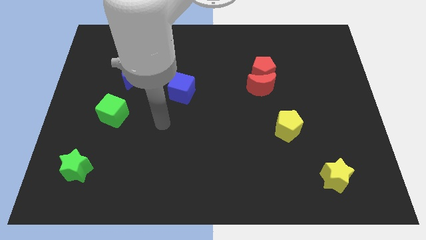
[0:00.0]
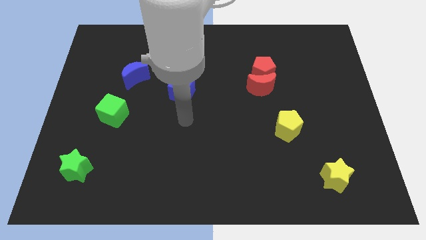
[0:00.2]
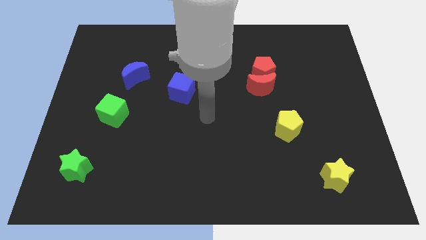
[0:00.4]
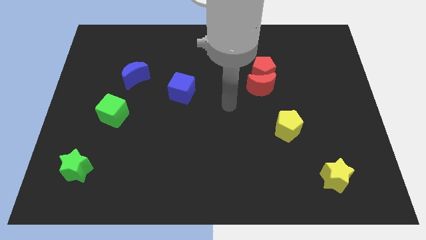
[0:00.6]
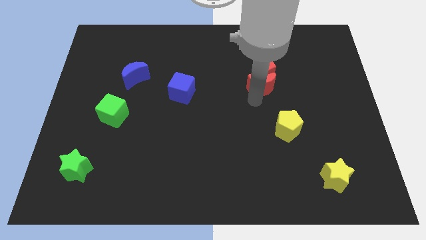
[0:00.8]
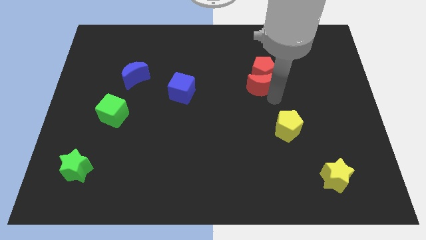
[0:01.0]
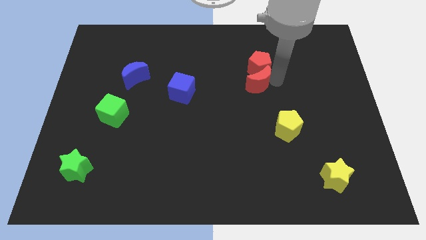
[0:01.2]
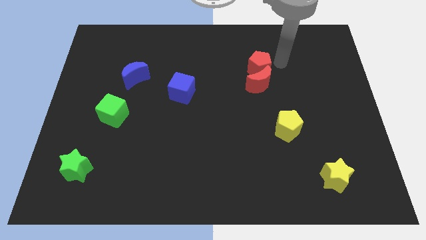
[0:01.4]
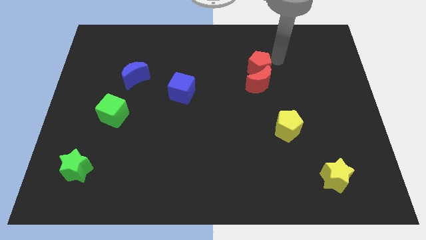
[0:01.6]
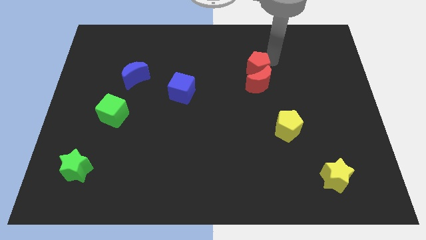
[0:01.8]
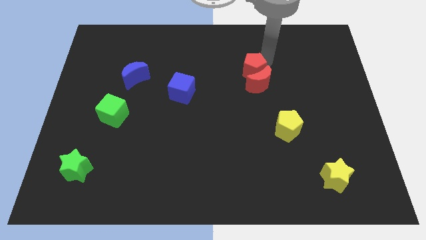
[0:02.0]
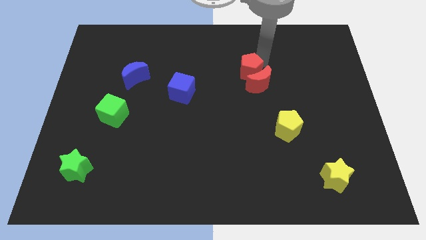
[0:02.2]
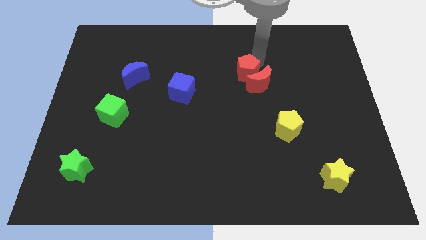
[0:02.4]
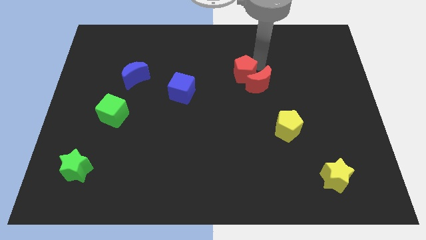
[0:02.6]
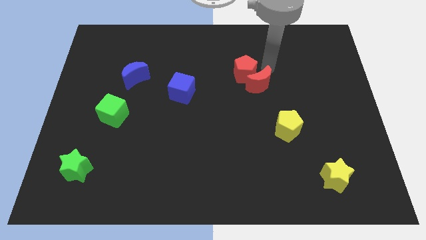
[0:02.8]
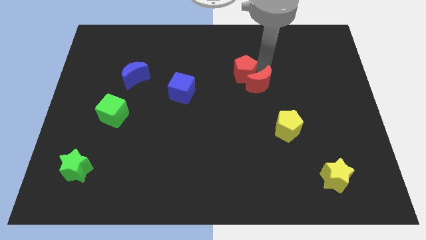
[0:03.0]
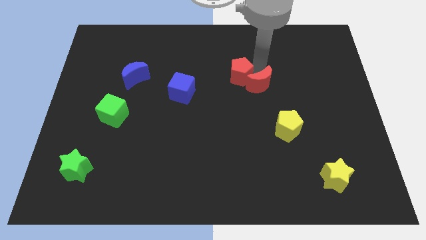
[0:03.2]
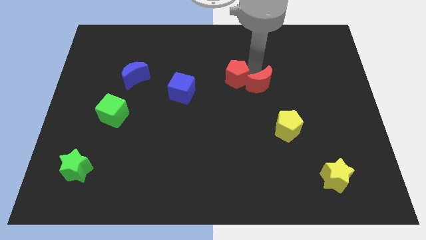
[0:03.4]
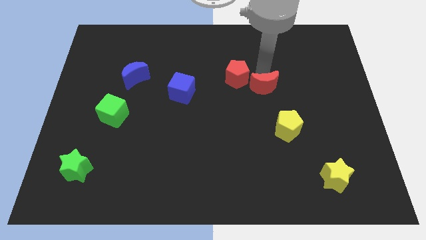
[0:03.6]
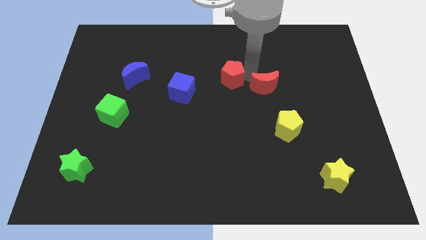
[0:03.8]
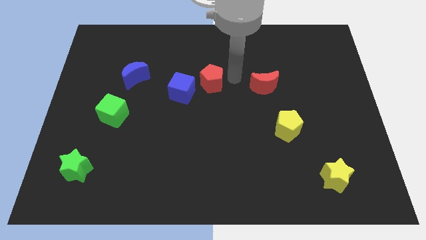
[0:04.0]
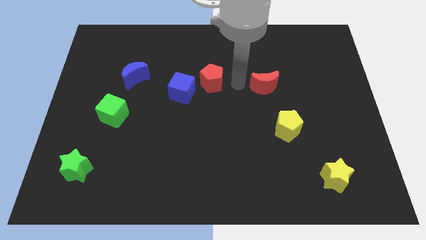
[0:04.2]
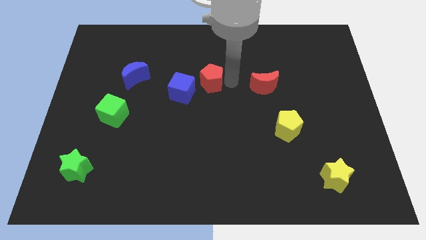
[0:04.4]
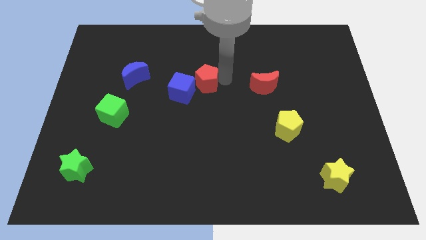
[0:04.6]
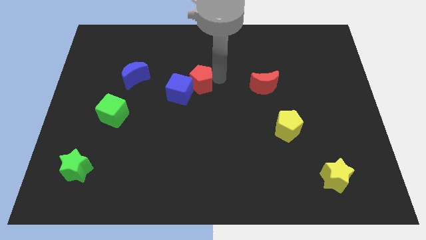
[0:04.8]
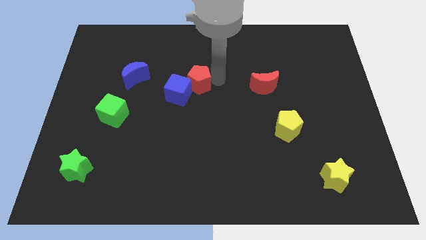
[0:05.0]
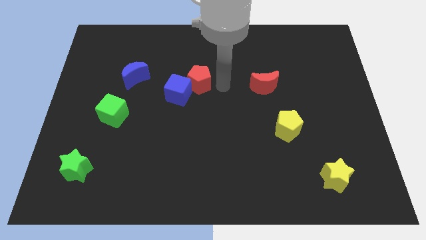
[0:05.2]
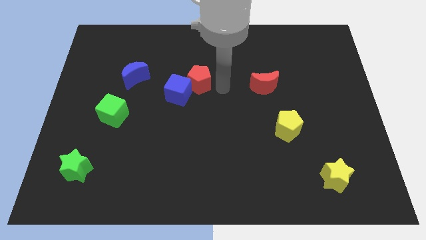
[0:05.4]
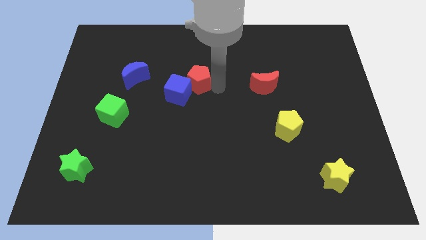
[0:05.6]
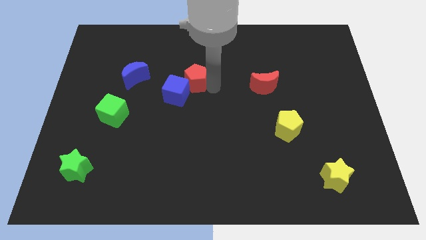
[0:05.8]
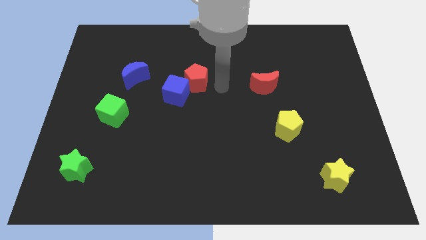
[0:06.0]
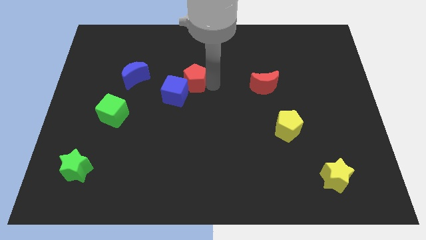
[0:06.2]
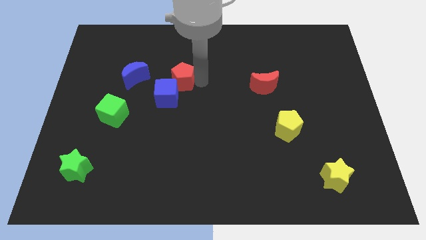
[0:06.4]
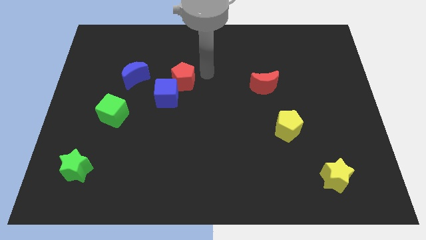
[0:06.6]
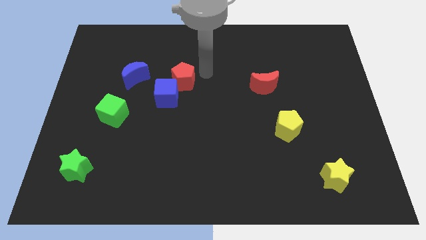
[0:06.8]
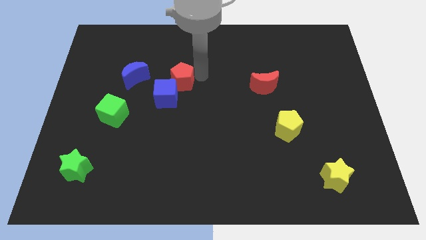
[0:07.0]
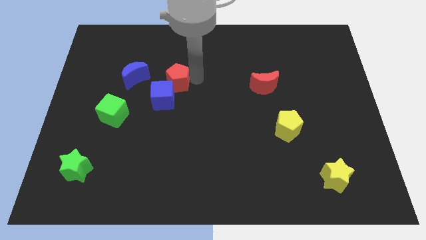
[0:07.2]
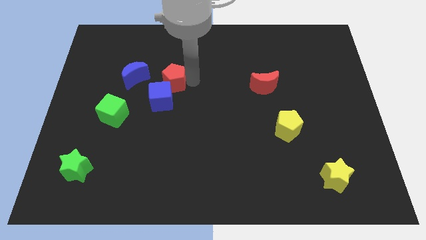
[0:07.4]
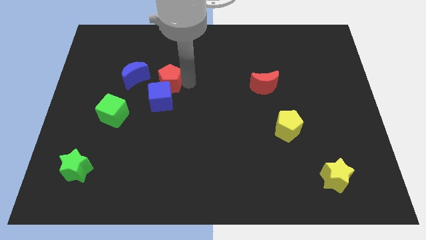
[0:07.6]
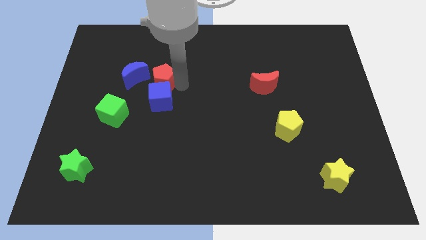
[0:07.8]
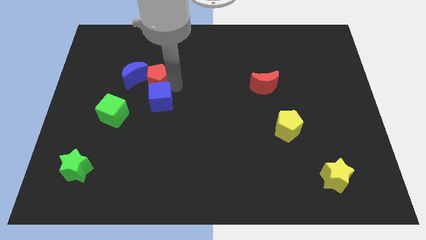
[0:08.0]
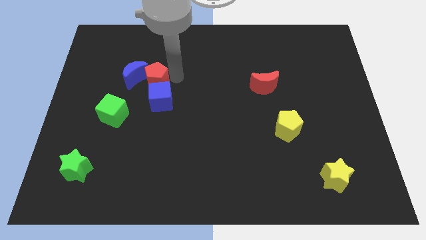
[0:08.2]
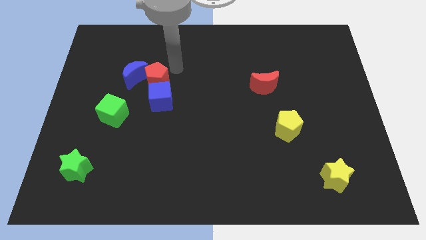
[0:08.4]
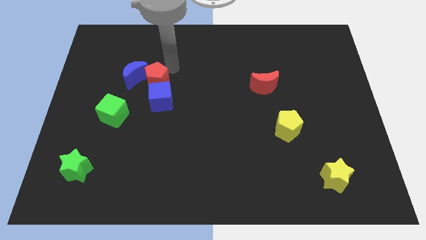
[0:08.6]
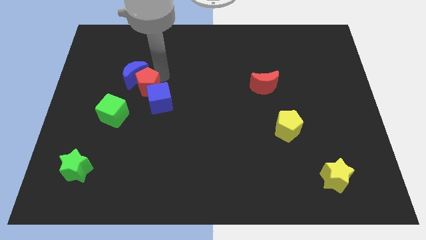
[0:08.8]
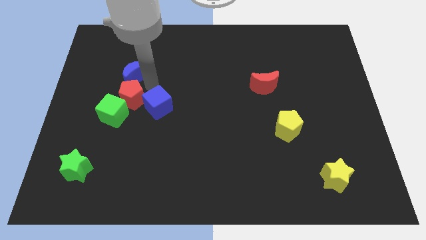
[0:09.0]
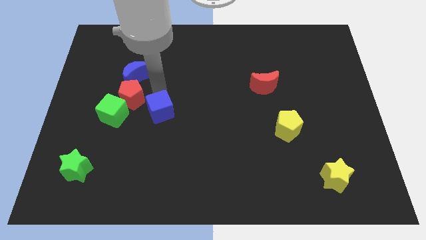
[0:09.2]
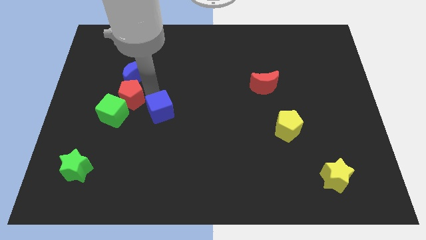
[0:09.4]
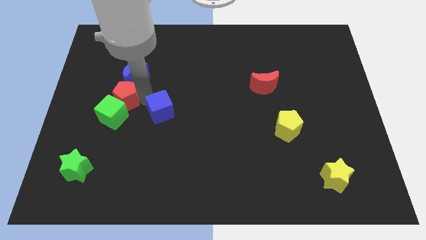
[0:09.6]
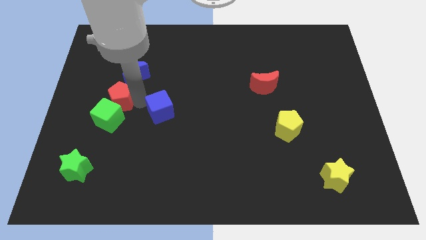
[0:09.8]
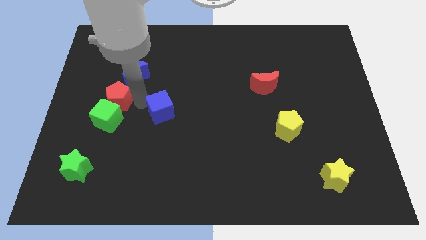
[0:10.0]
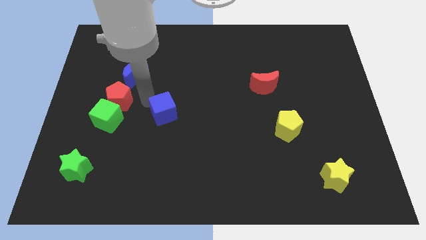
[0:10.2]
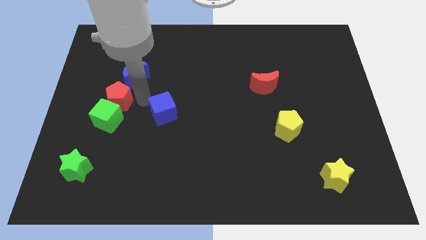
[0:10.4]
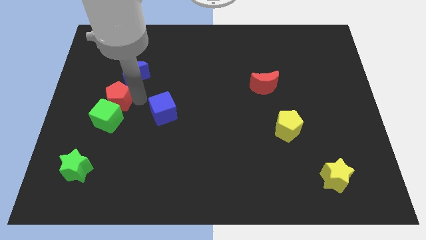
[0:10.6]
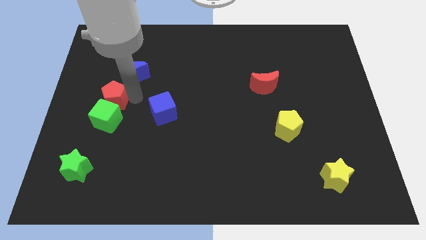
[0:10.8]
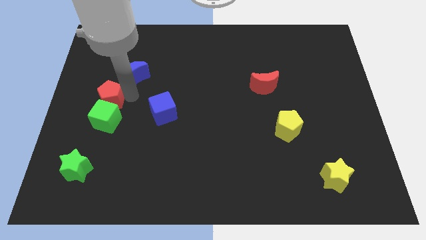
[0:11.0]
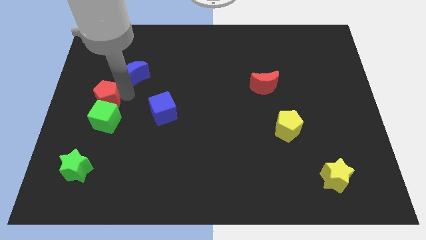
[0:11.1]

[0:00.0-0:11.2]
slide the red pentagon to the left side

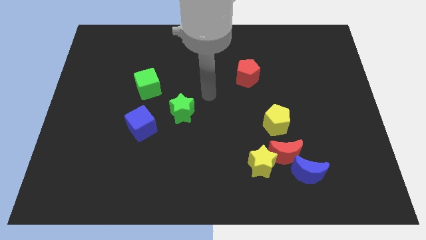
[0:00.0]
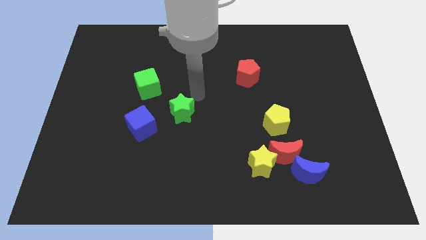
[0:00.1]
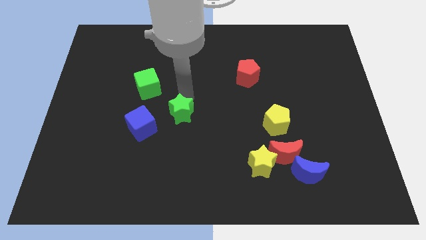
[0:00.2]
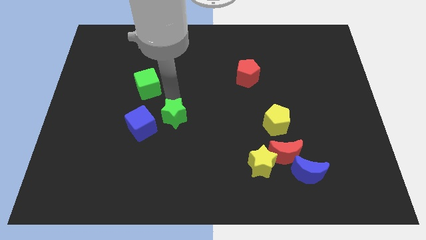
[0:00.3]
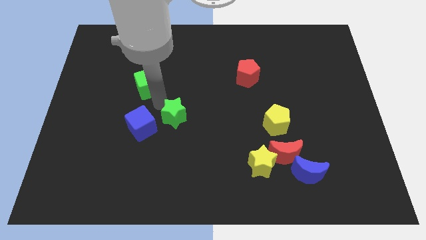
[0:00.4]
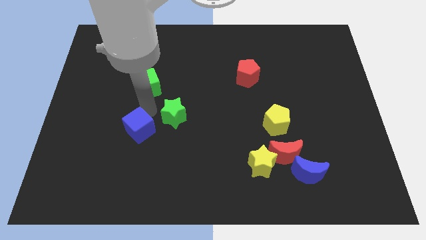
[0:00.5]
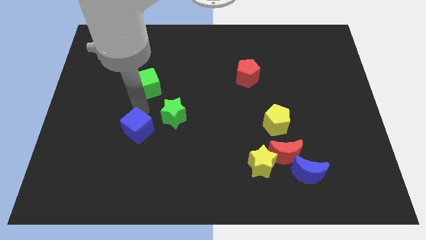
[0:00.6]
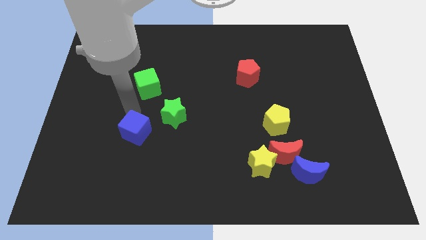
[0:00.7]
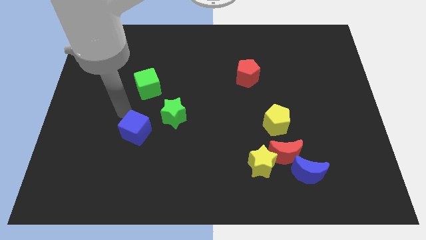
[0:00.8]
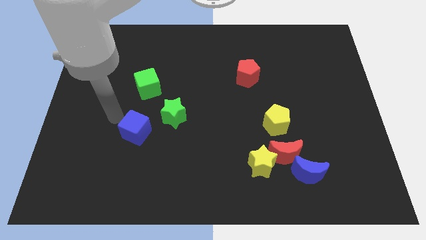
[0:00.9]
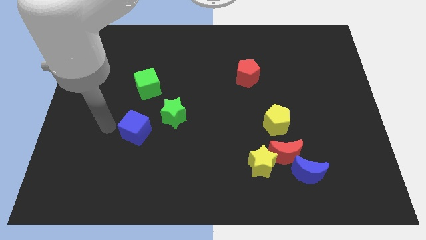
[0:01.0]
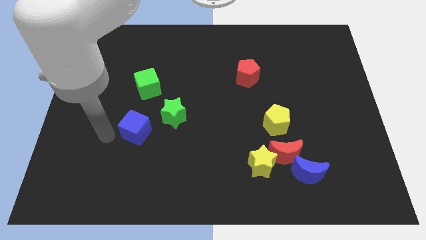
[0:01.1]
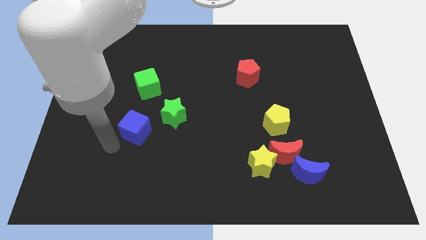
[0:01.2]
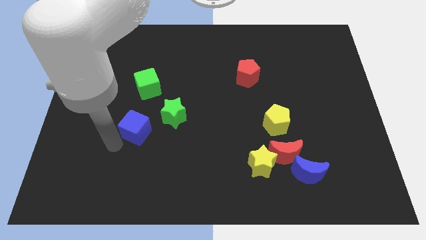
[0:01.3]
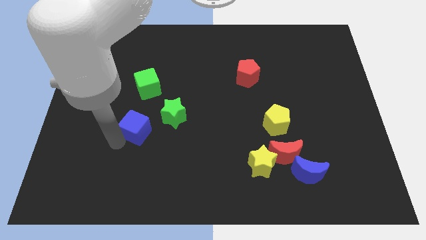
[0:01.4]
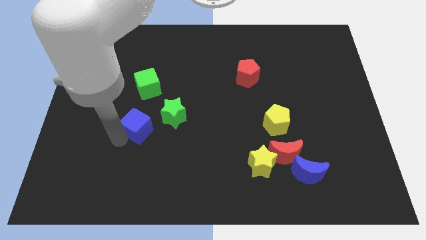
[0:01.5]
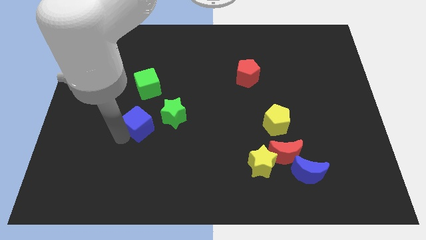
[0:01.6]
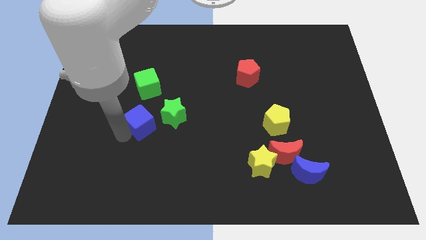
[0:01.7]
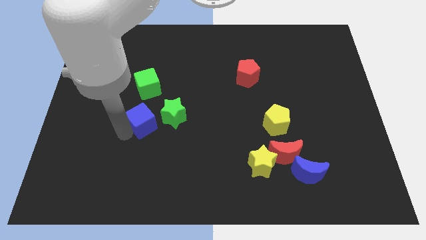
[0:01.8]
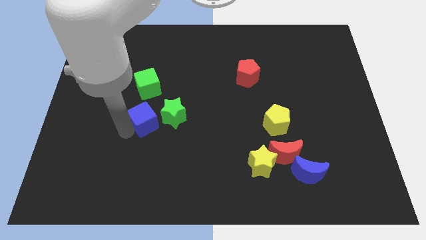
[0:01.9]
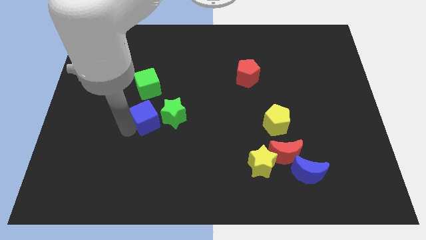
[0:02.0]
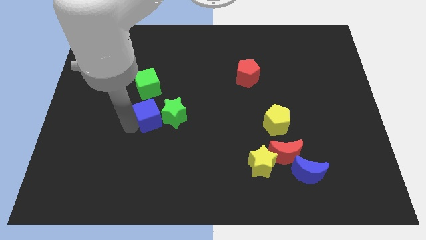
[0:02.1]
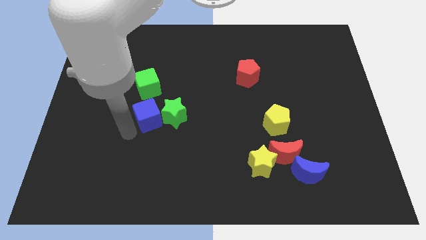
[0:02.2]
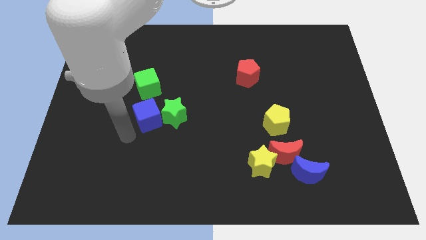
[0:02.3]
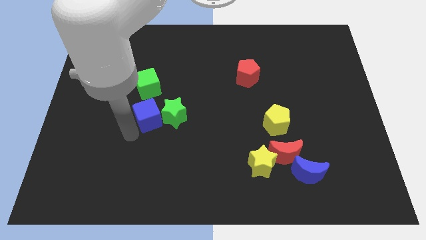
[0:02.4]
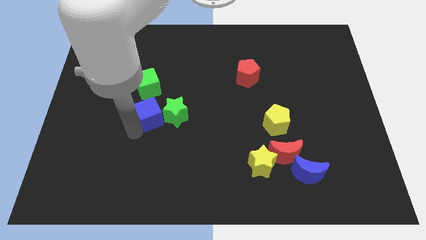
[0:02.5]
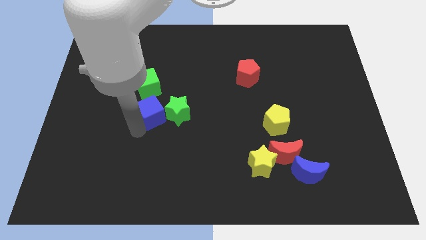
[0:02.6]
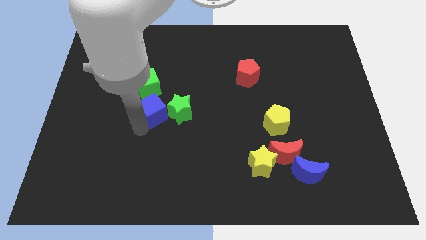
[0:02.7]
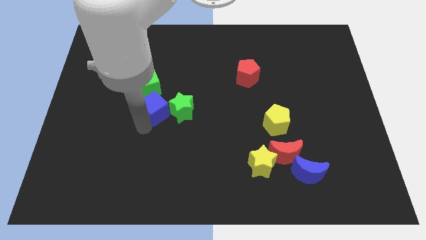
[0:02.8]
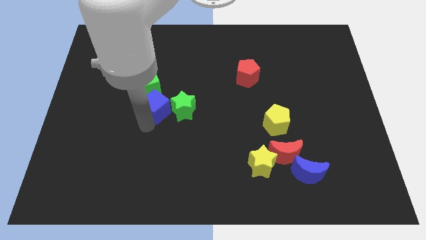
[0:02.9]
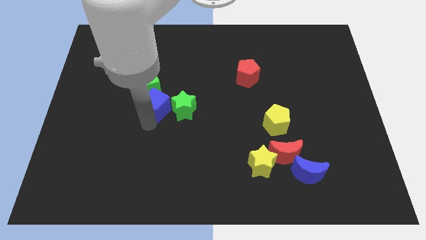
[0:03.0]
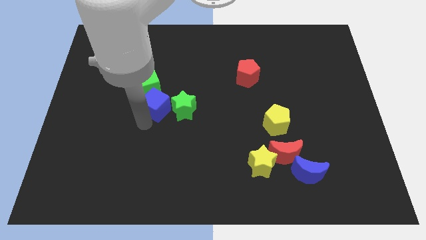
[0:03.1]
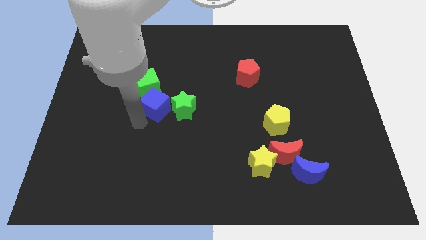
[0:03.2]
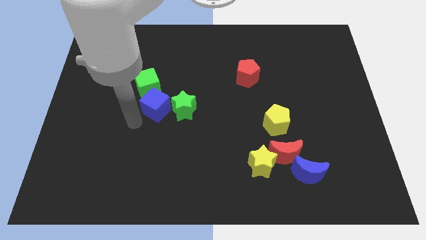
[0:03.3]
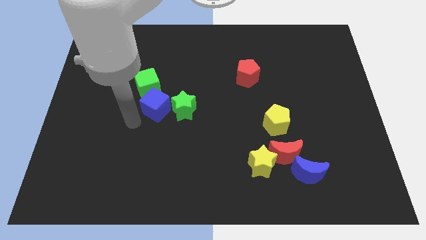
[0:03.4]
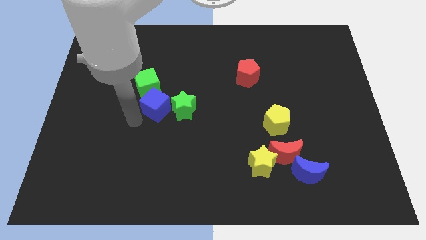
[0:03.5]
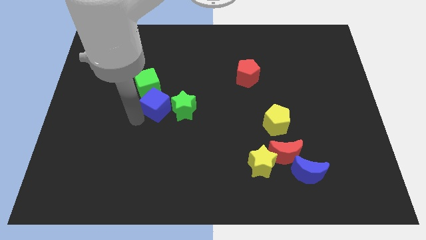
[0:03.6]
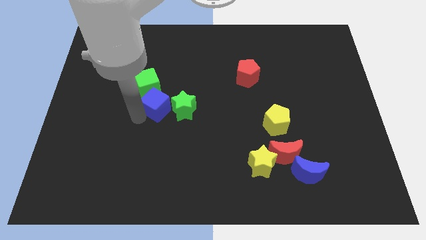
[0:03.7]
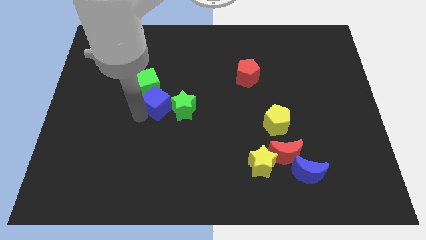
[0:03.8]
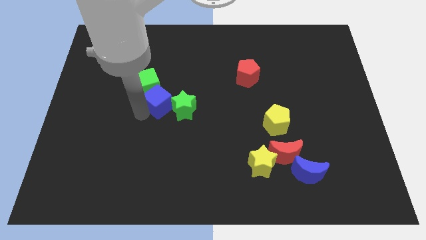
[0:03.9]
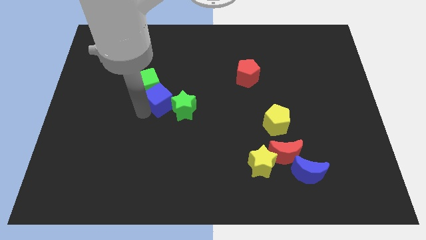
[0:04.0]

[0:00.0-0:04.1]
slide the blue cube to the center
